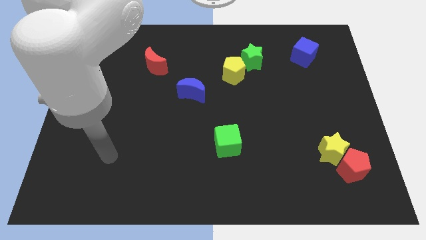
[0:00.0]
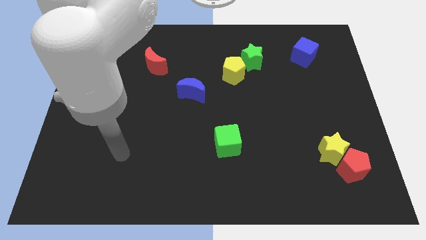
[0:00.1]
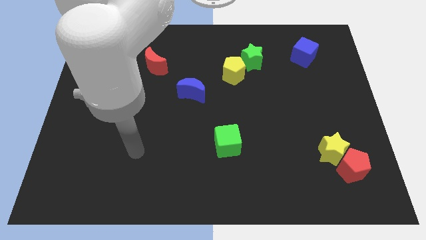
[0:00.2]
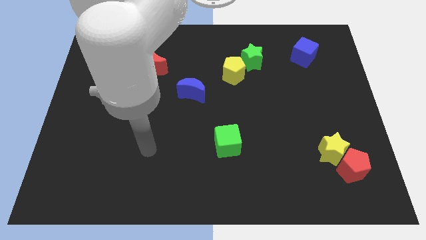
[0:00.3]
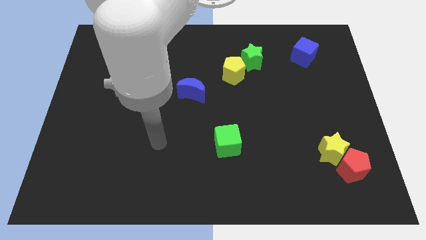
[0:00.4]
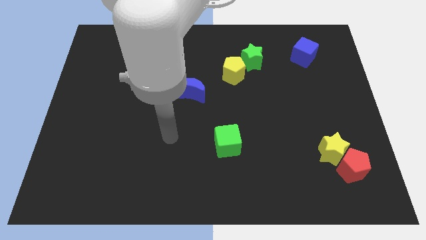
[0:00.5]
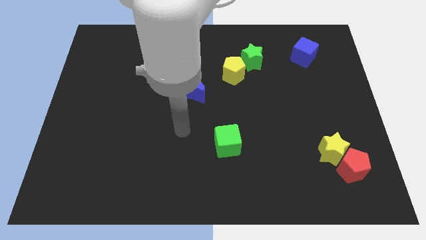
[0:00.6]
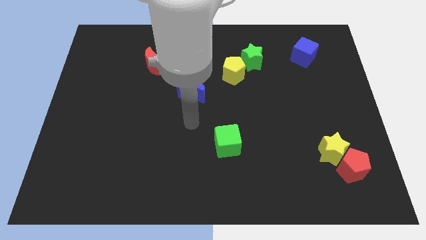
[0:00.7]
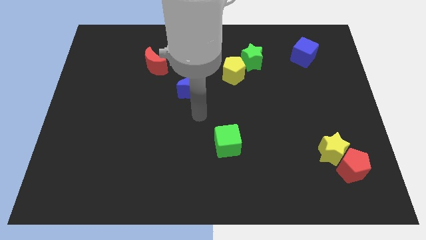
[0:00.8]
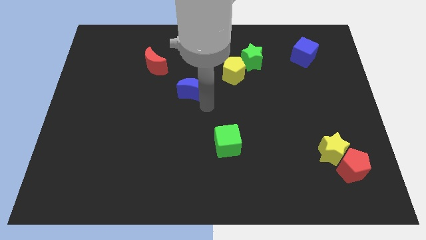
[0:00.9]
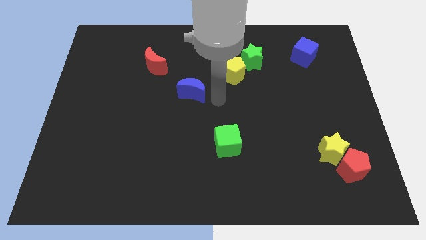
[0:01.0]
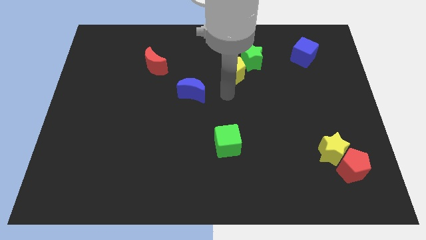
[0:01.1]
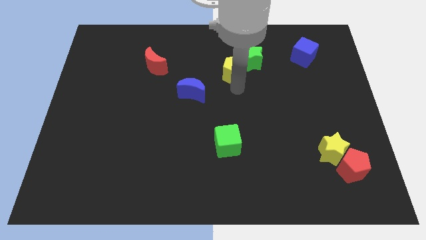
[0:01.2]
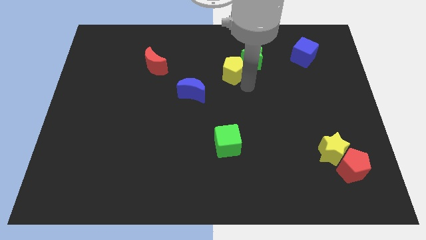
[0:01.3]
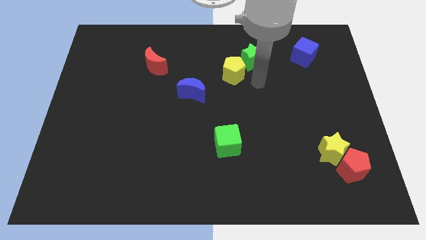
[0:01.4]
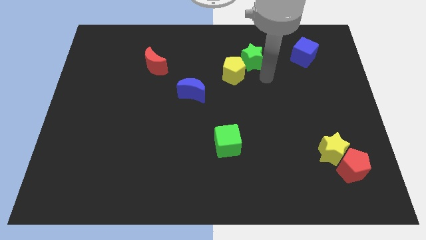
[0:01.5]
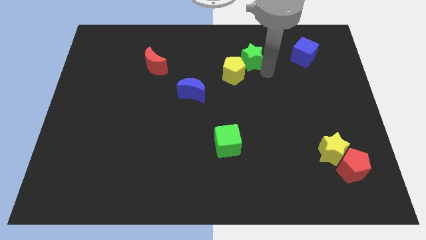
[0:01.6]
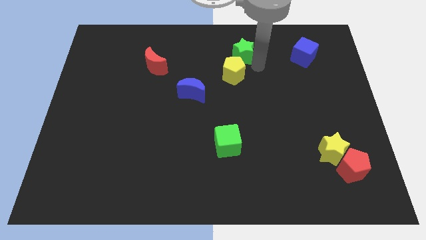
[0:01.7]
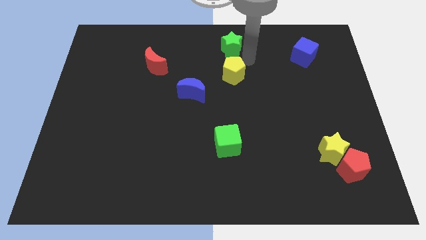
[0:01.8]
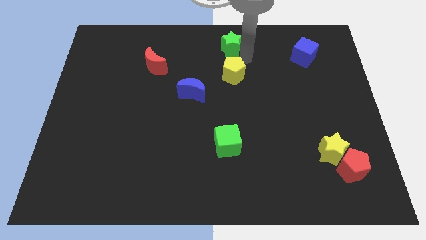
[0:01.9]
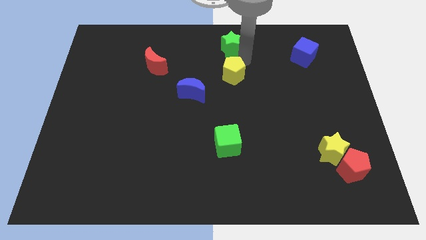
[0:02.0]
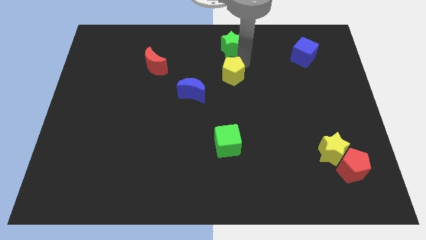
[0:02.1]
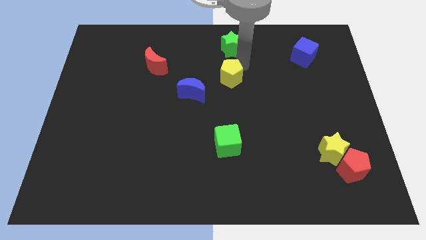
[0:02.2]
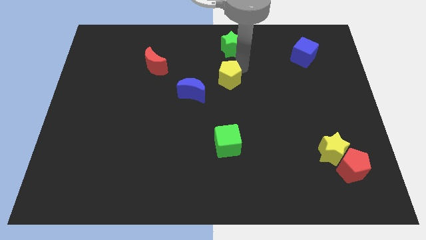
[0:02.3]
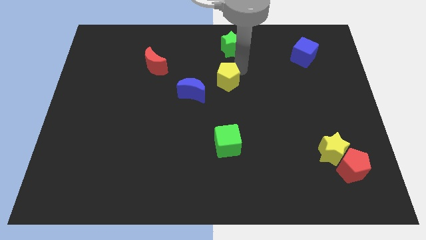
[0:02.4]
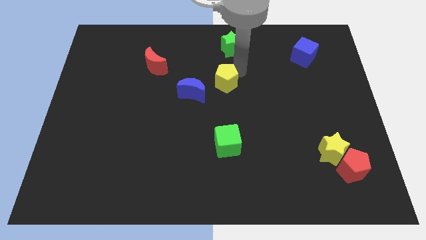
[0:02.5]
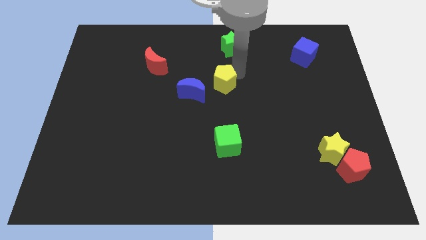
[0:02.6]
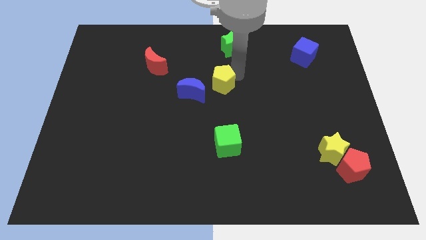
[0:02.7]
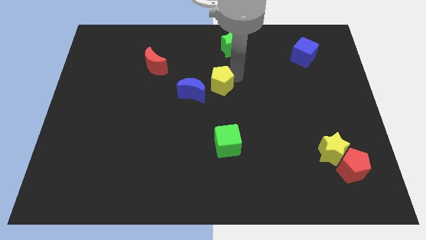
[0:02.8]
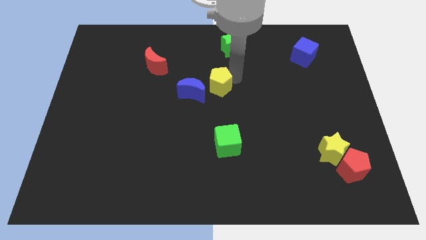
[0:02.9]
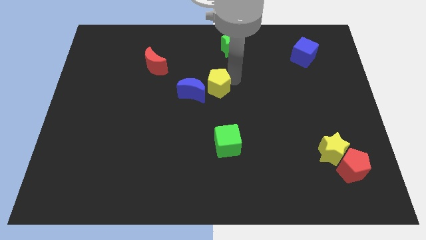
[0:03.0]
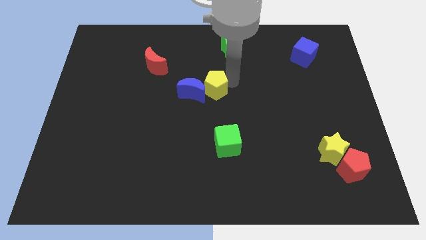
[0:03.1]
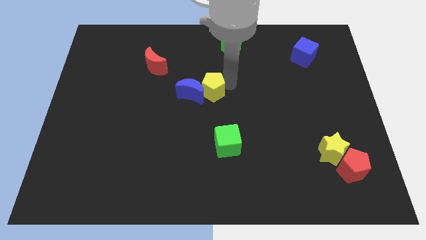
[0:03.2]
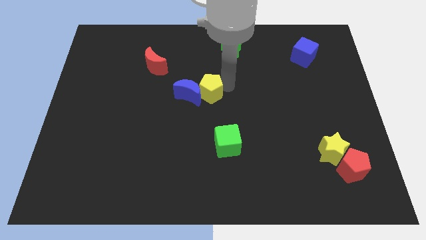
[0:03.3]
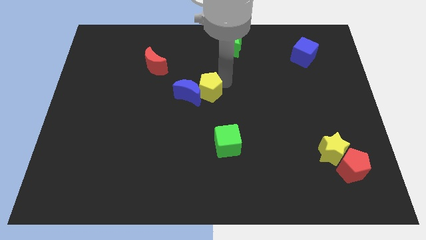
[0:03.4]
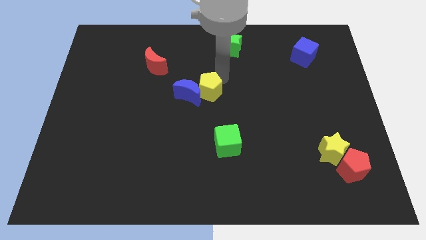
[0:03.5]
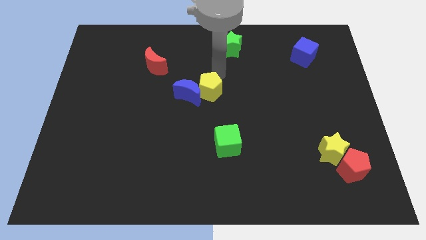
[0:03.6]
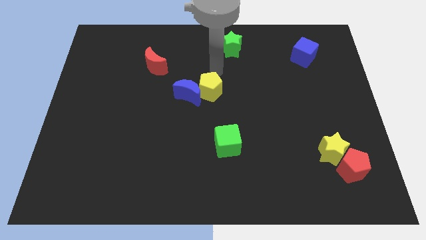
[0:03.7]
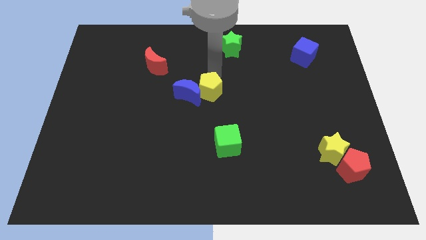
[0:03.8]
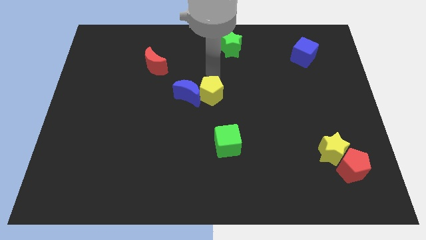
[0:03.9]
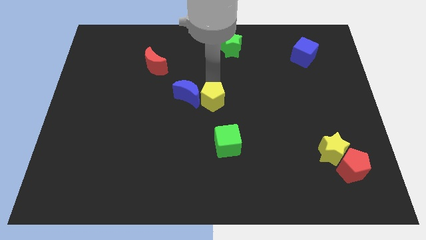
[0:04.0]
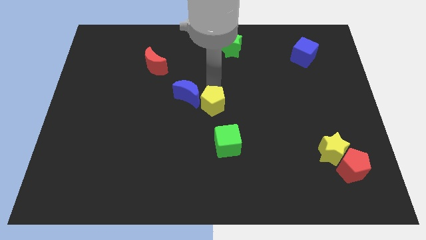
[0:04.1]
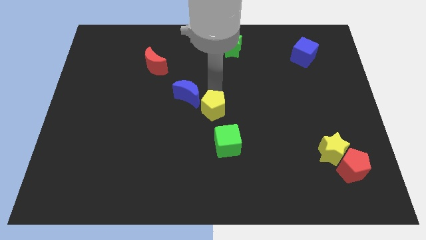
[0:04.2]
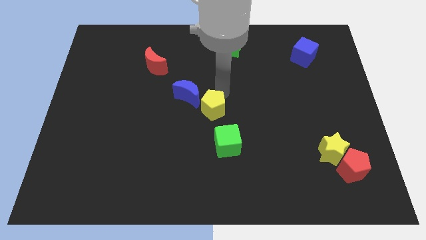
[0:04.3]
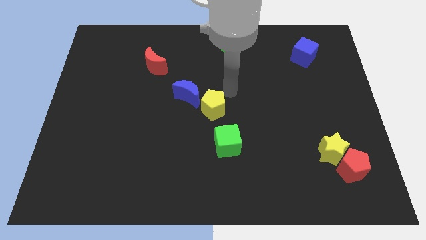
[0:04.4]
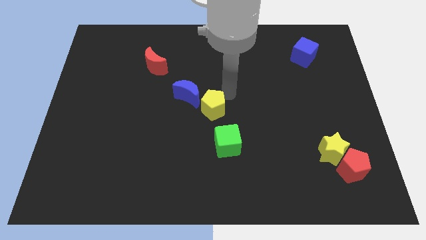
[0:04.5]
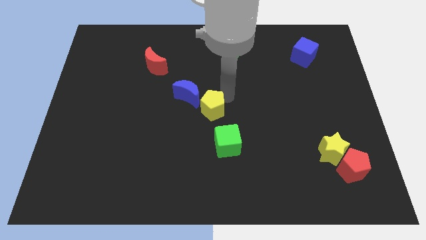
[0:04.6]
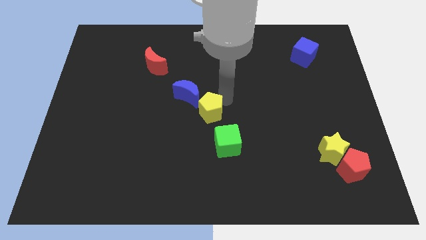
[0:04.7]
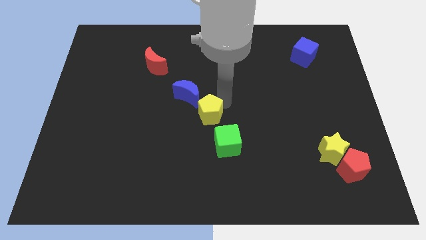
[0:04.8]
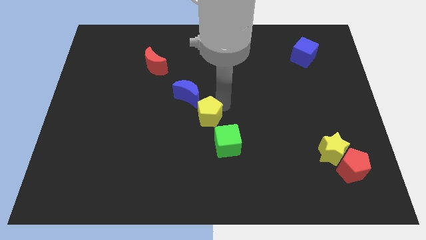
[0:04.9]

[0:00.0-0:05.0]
put the yellow pentagon to the bottom of the blue moon

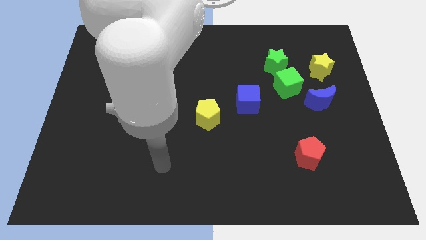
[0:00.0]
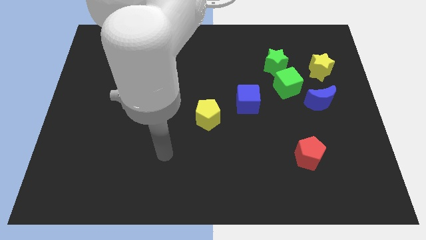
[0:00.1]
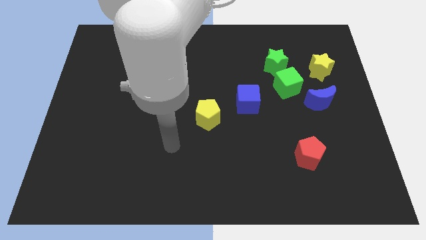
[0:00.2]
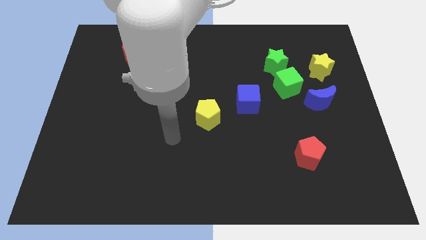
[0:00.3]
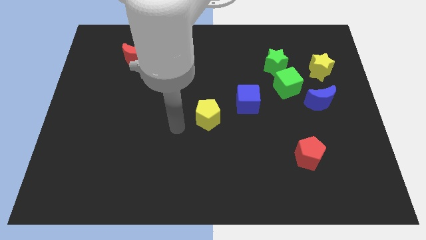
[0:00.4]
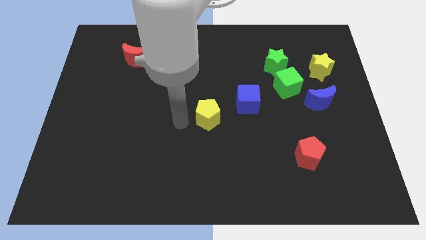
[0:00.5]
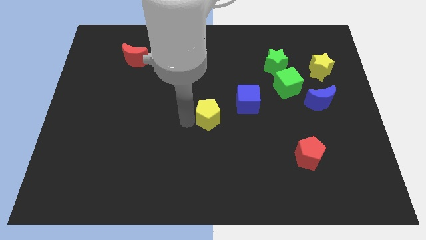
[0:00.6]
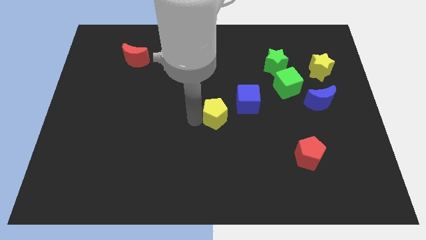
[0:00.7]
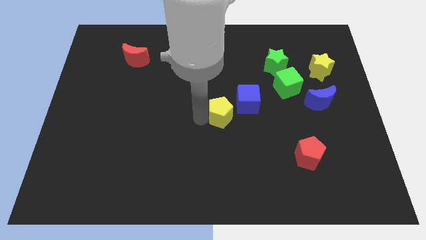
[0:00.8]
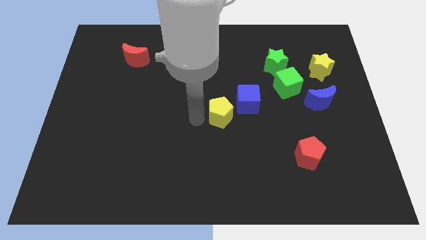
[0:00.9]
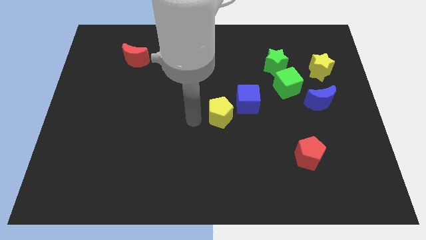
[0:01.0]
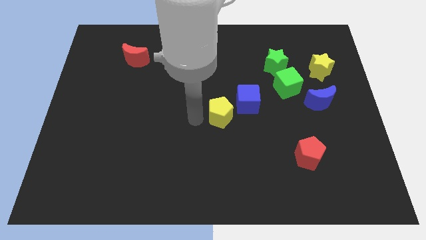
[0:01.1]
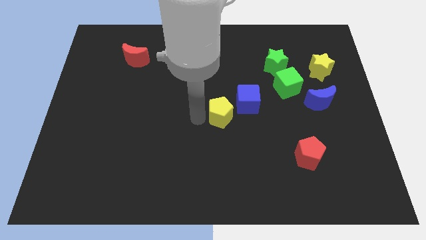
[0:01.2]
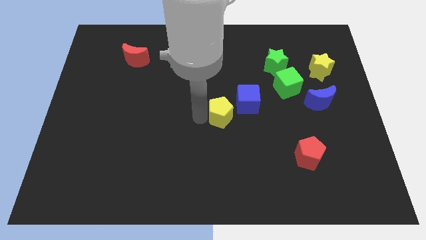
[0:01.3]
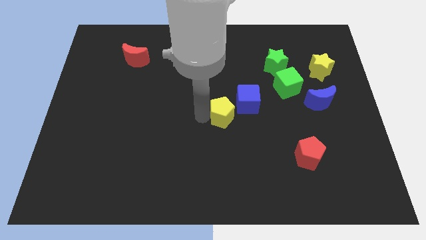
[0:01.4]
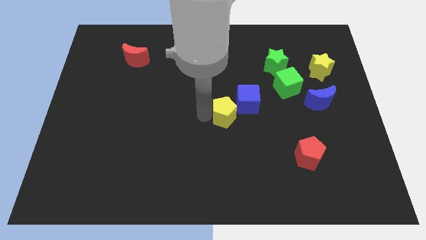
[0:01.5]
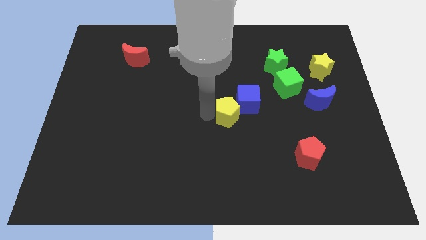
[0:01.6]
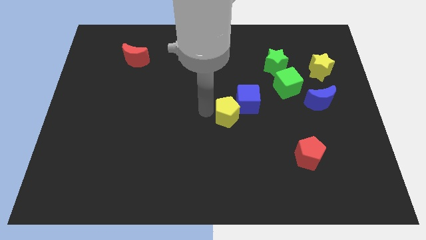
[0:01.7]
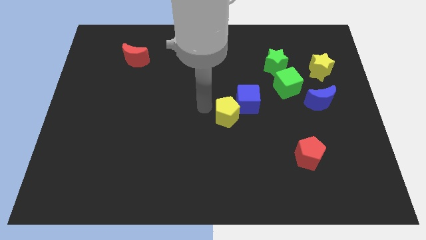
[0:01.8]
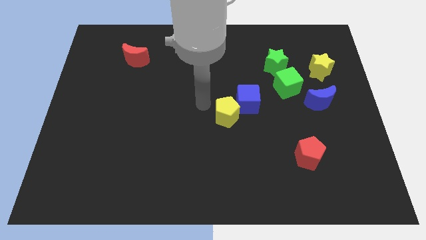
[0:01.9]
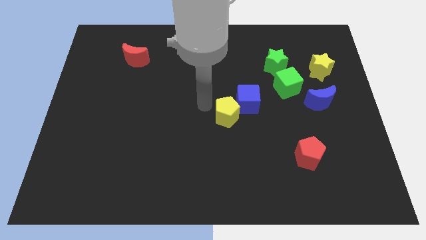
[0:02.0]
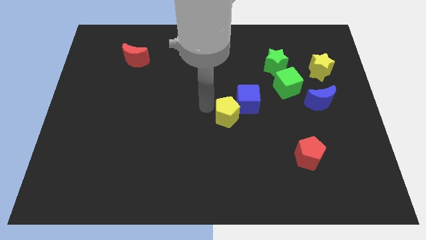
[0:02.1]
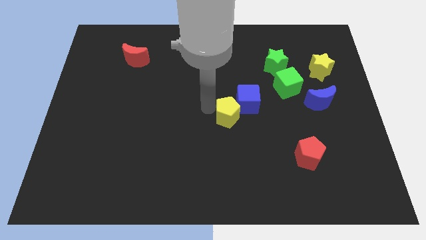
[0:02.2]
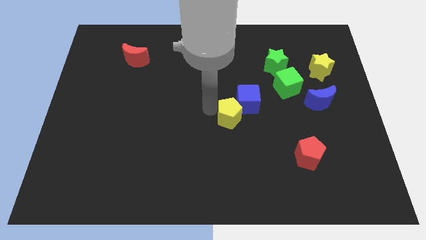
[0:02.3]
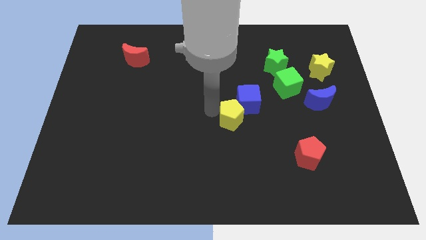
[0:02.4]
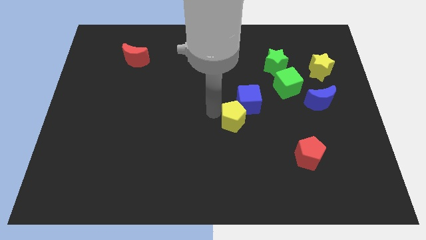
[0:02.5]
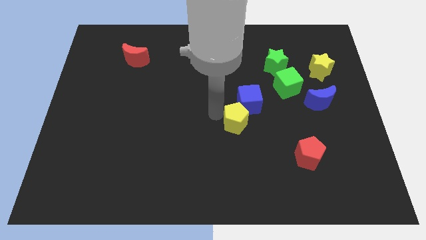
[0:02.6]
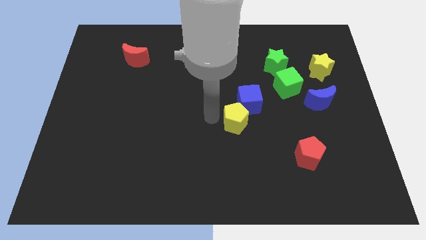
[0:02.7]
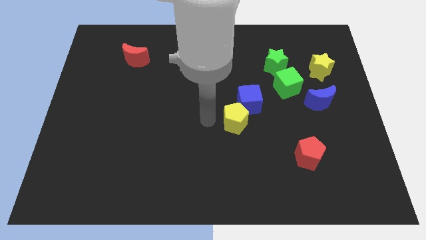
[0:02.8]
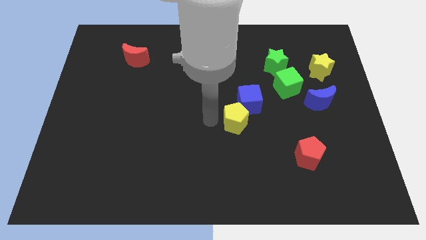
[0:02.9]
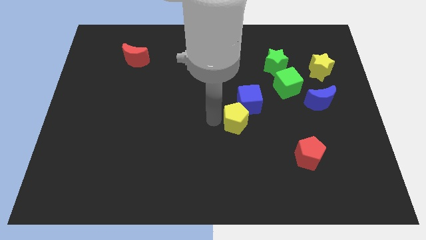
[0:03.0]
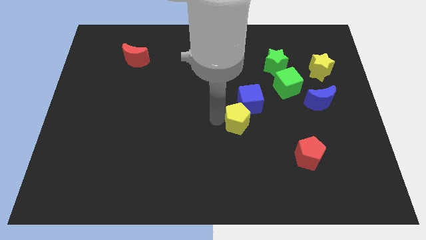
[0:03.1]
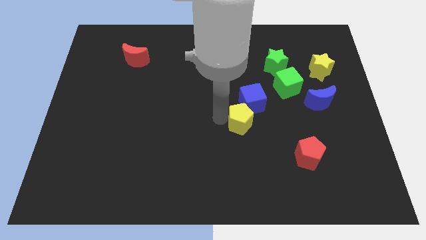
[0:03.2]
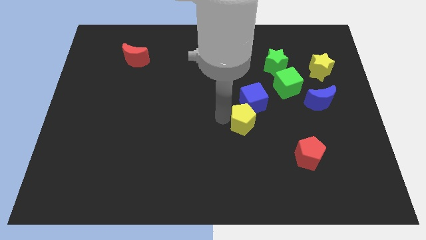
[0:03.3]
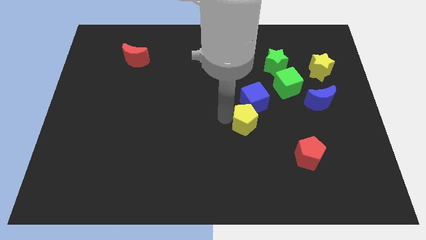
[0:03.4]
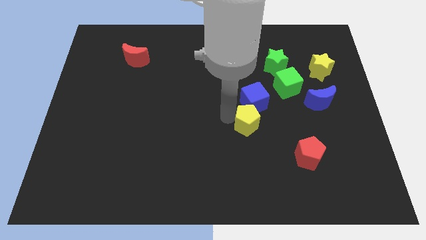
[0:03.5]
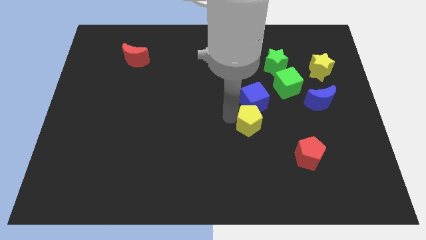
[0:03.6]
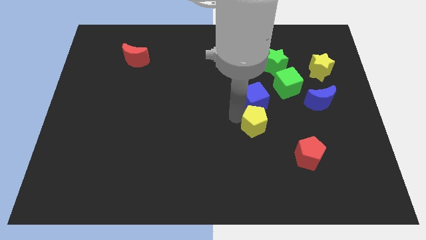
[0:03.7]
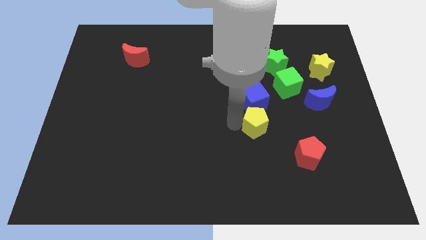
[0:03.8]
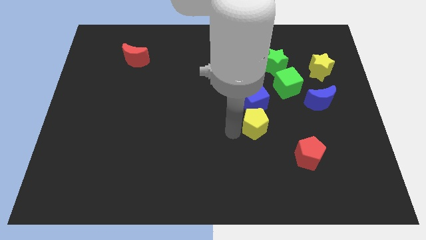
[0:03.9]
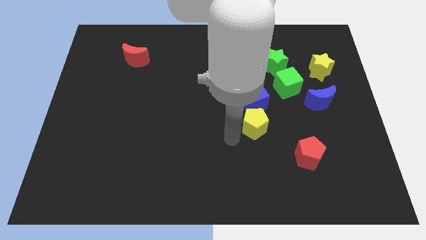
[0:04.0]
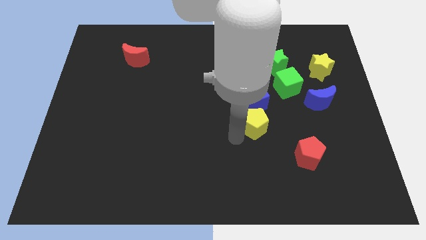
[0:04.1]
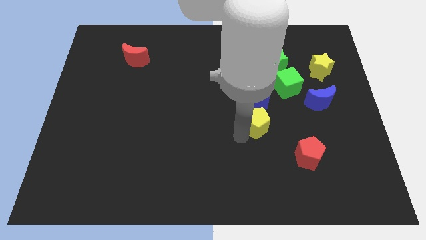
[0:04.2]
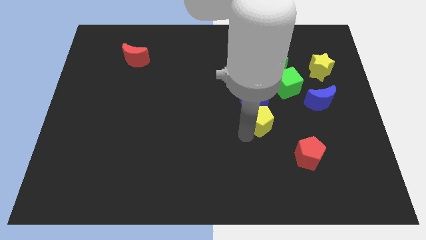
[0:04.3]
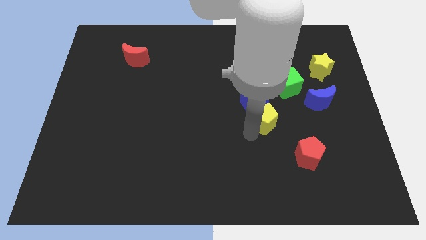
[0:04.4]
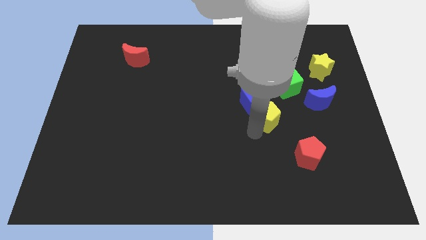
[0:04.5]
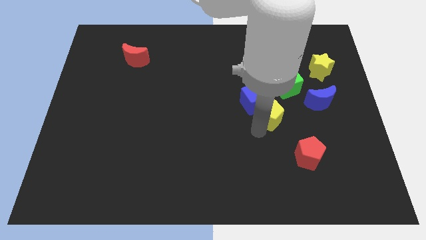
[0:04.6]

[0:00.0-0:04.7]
slide the yellow pentagon to the right of the blue cube
